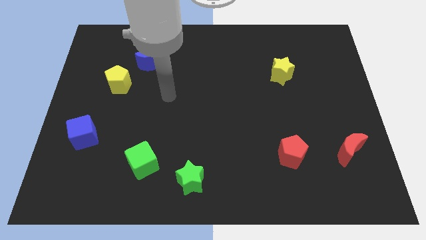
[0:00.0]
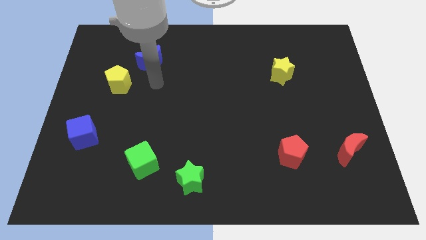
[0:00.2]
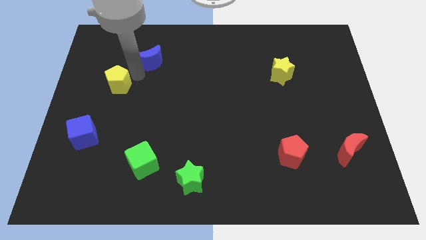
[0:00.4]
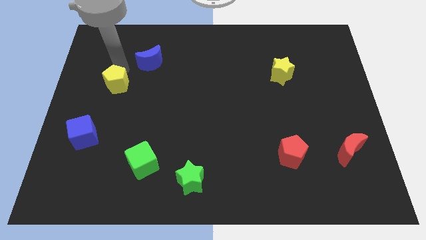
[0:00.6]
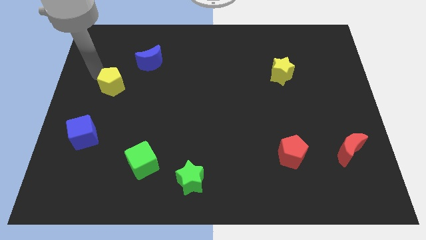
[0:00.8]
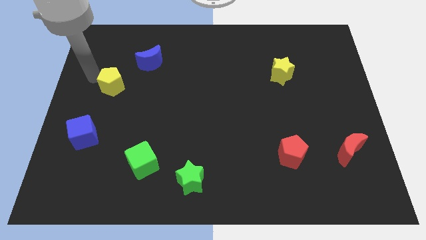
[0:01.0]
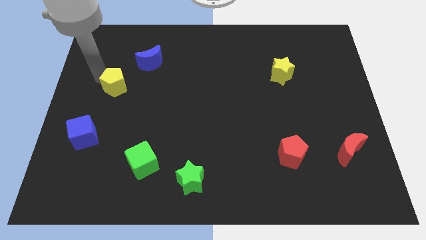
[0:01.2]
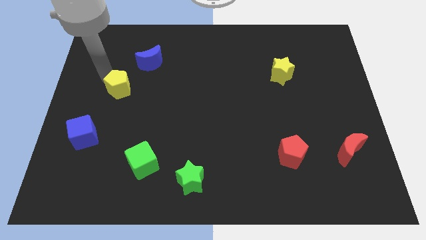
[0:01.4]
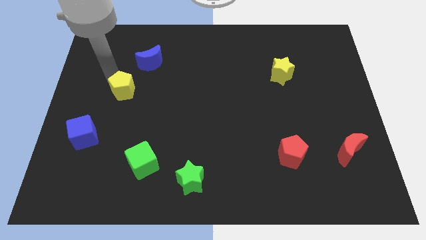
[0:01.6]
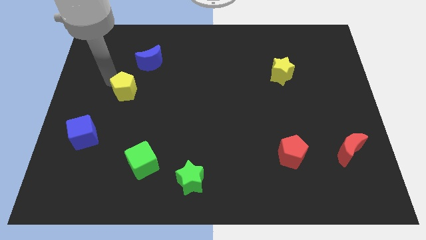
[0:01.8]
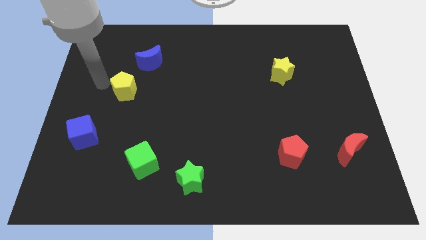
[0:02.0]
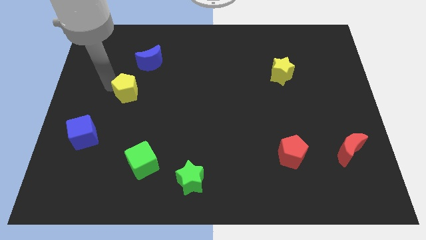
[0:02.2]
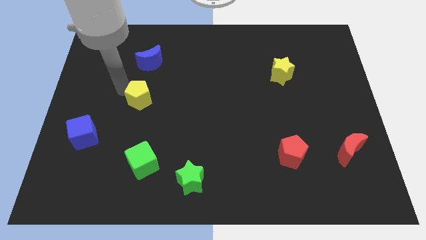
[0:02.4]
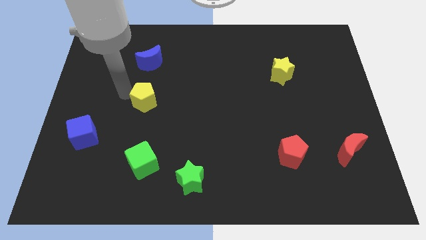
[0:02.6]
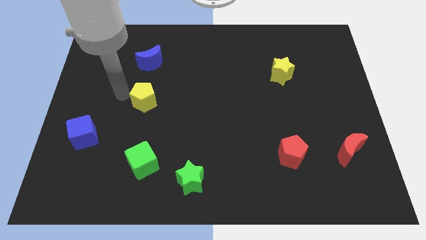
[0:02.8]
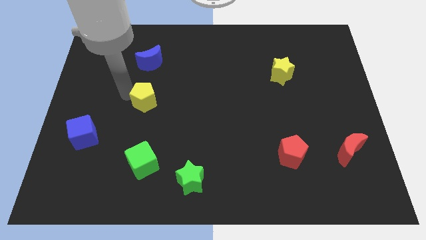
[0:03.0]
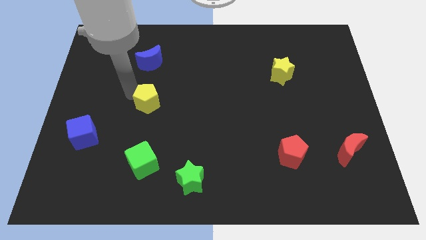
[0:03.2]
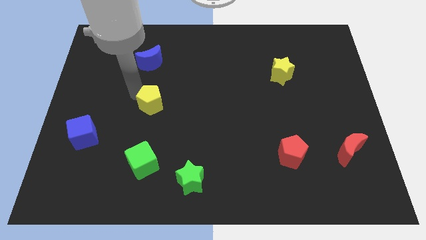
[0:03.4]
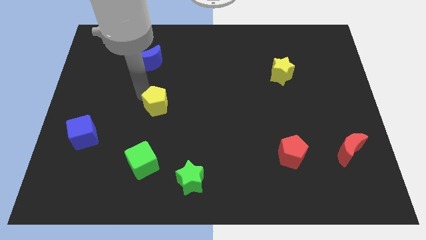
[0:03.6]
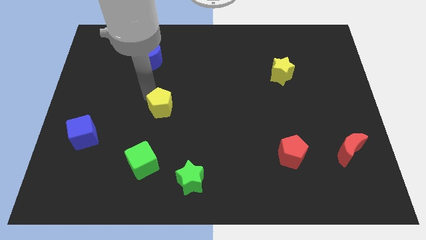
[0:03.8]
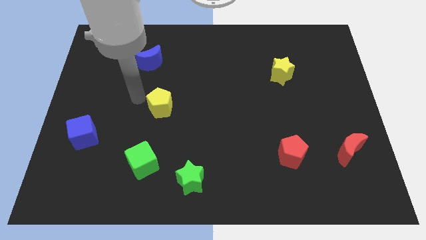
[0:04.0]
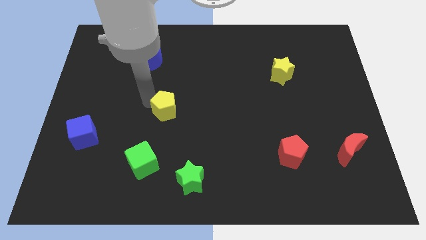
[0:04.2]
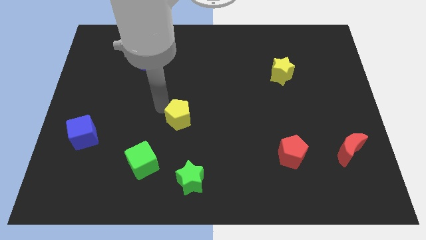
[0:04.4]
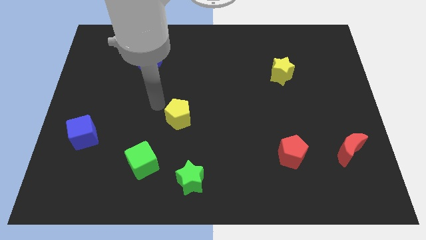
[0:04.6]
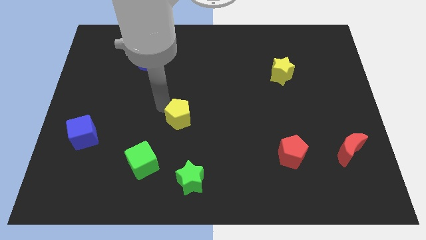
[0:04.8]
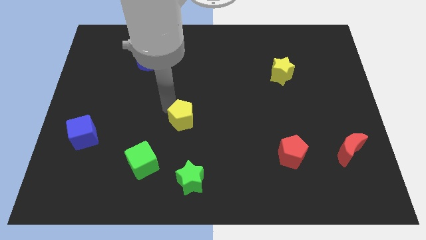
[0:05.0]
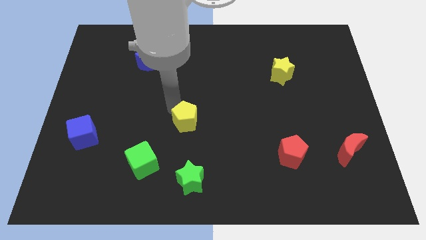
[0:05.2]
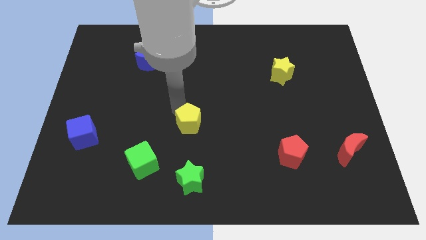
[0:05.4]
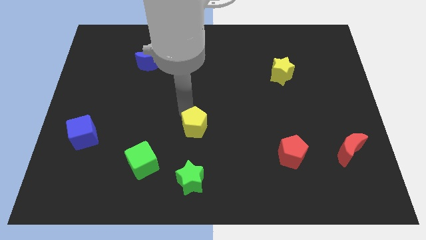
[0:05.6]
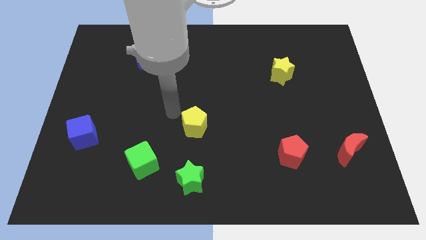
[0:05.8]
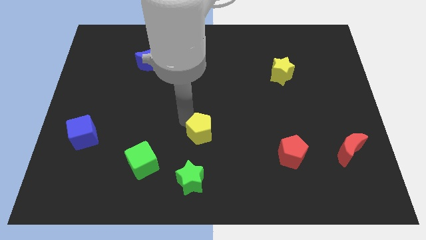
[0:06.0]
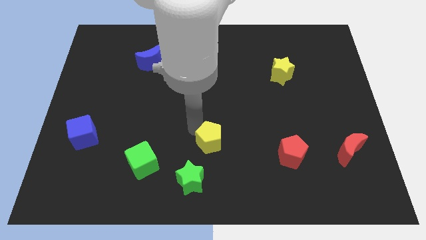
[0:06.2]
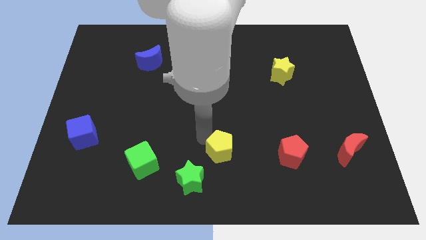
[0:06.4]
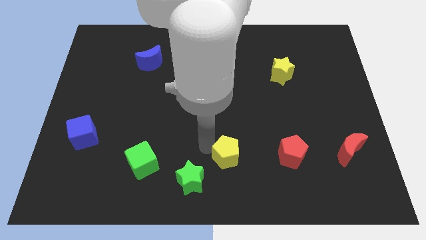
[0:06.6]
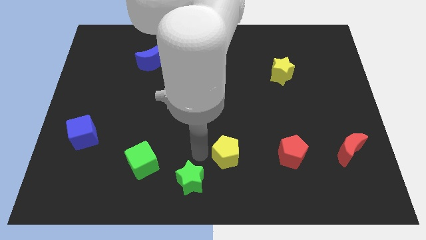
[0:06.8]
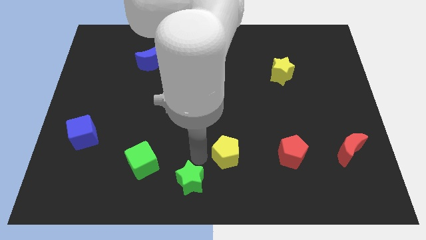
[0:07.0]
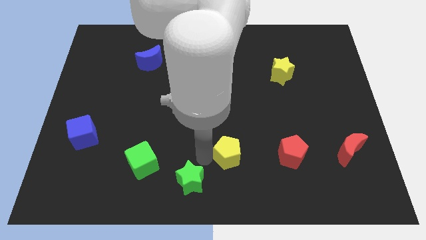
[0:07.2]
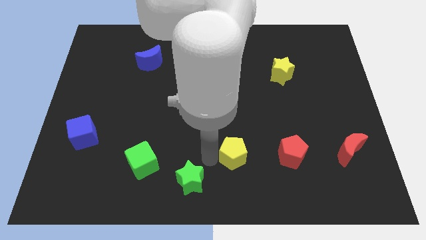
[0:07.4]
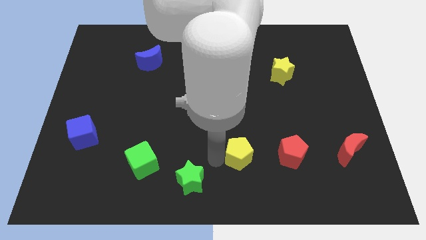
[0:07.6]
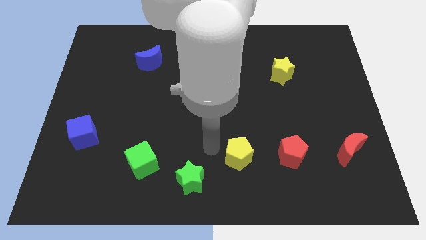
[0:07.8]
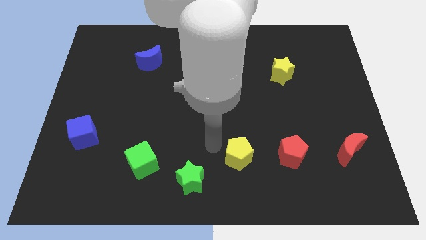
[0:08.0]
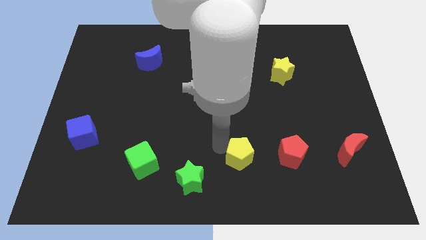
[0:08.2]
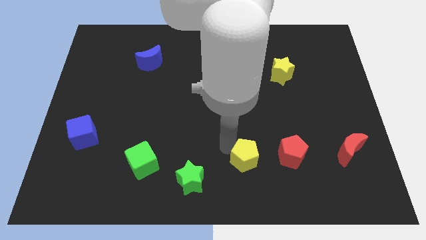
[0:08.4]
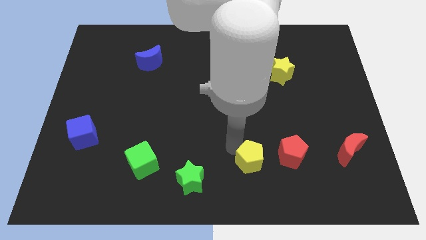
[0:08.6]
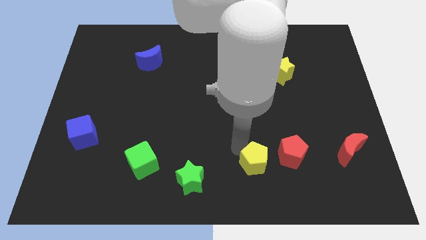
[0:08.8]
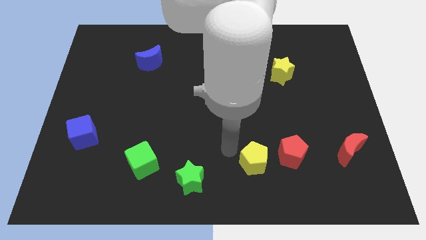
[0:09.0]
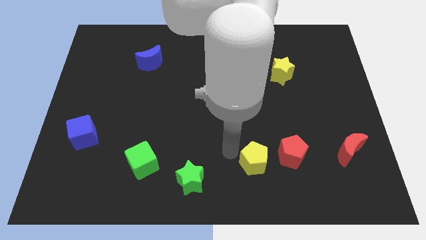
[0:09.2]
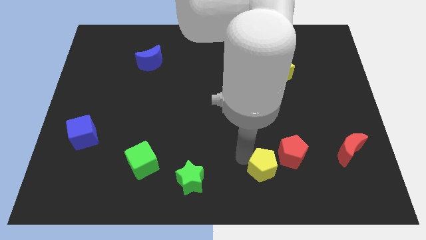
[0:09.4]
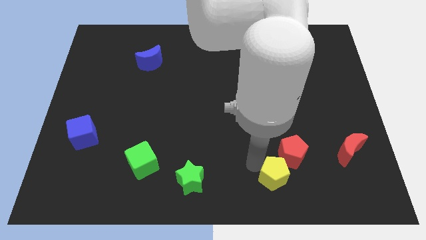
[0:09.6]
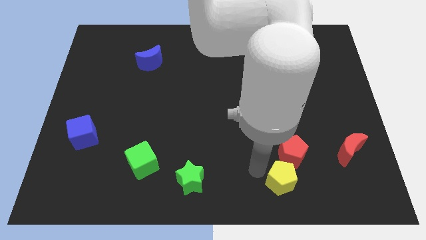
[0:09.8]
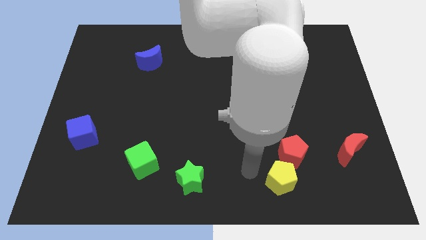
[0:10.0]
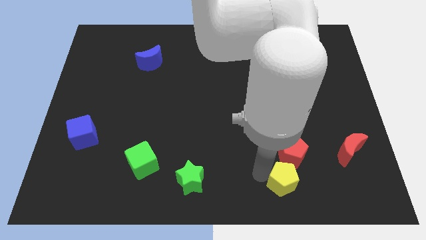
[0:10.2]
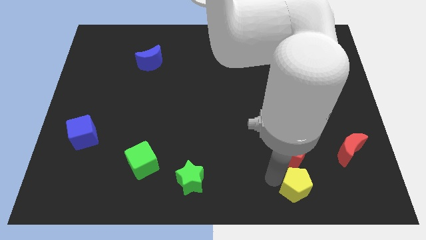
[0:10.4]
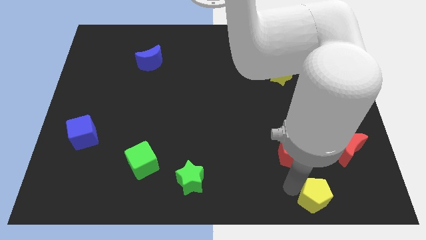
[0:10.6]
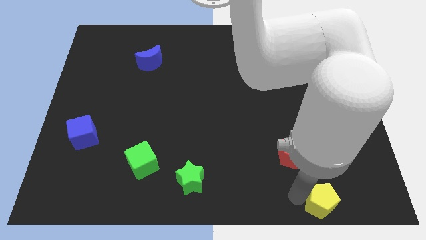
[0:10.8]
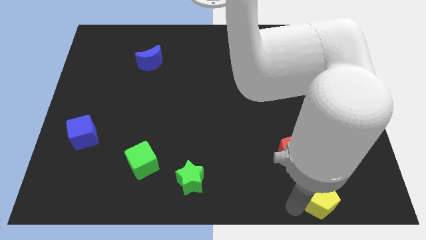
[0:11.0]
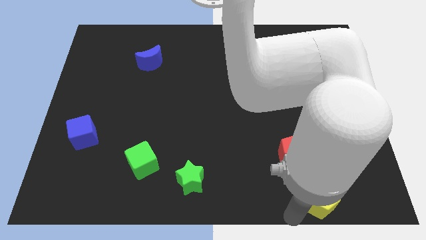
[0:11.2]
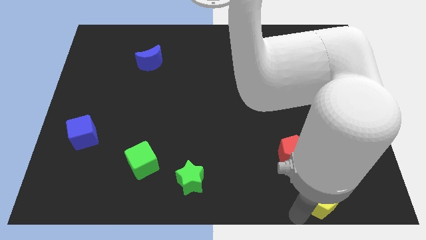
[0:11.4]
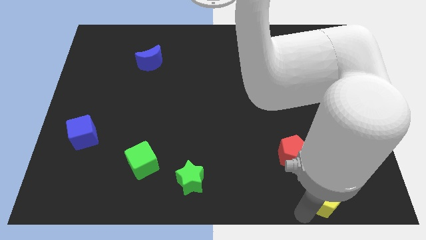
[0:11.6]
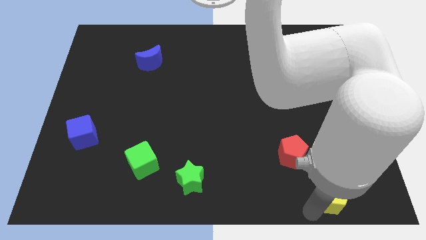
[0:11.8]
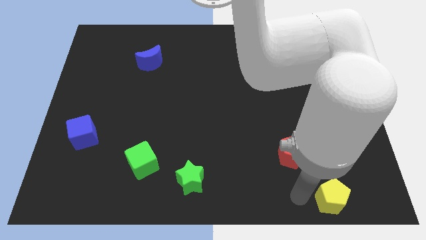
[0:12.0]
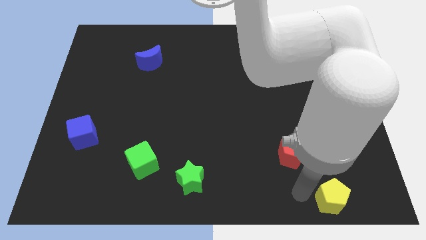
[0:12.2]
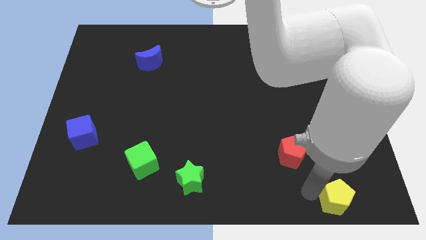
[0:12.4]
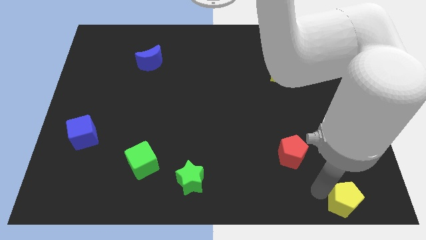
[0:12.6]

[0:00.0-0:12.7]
put the yellow pentagon to the lower right corner

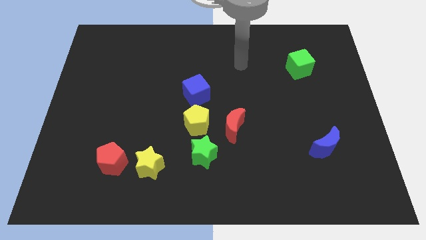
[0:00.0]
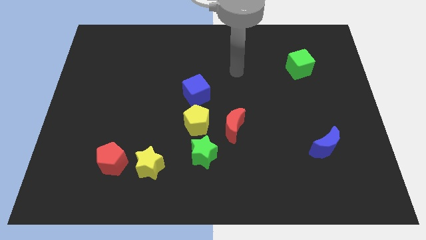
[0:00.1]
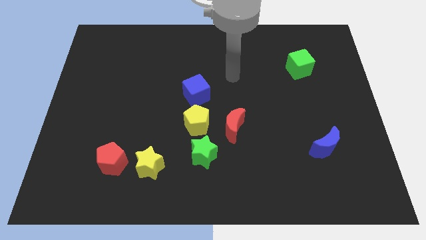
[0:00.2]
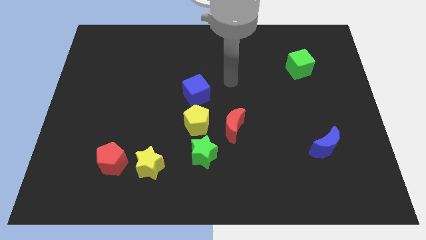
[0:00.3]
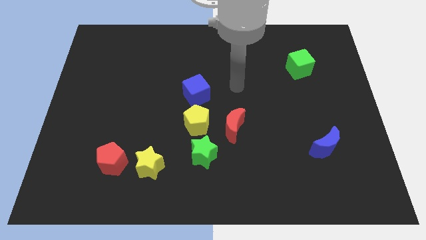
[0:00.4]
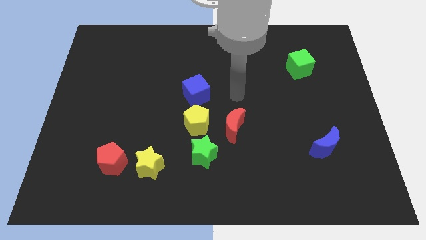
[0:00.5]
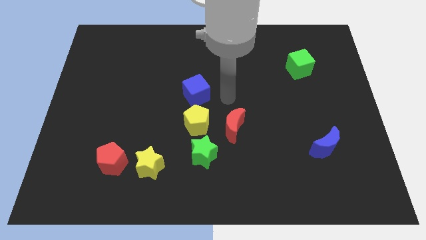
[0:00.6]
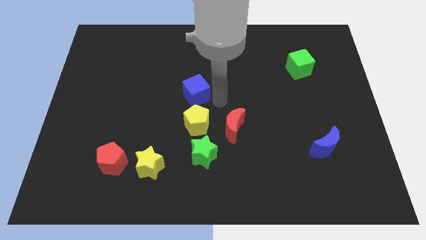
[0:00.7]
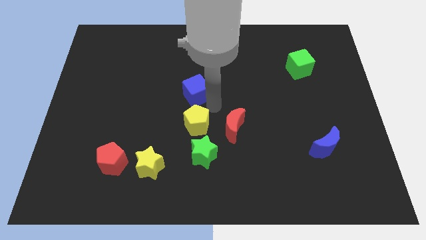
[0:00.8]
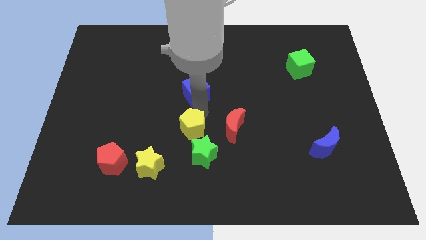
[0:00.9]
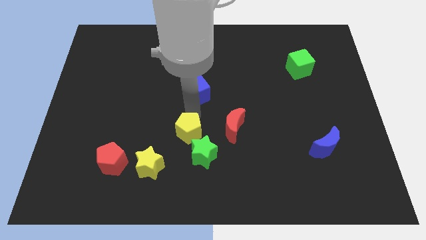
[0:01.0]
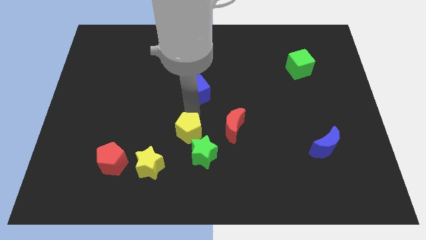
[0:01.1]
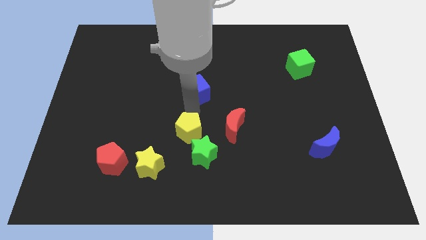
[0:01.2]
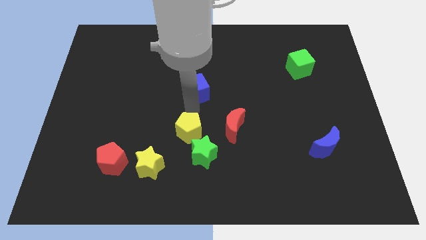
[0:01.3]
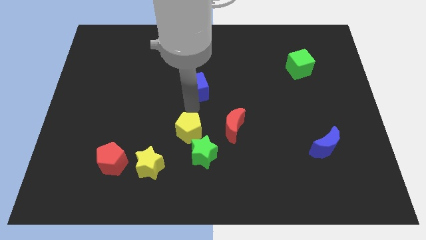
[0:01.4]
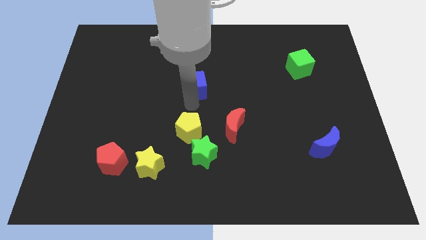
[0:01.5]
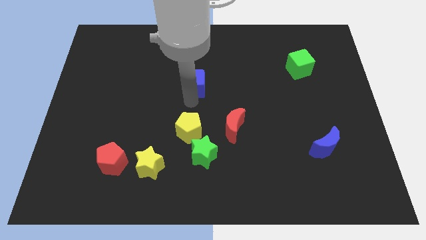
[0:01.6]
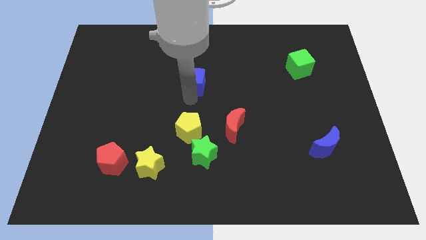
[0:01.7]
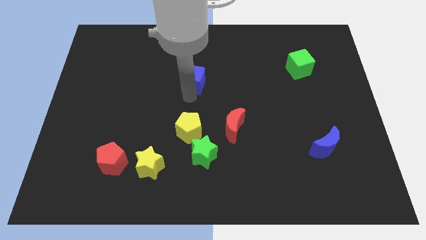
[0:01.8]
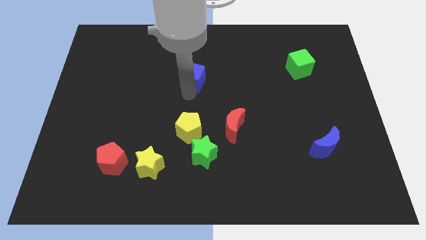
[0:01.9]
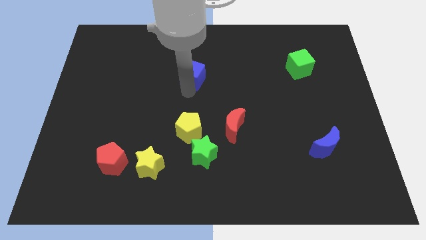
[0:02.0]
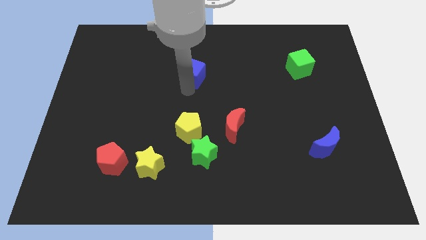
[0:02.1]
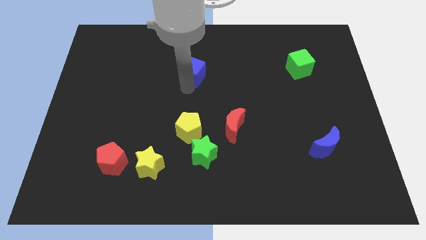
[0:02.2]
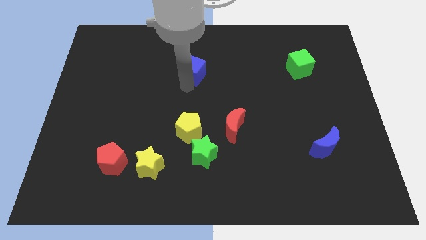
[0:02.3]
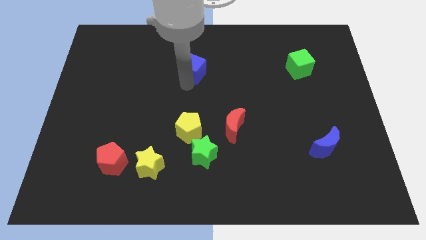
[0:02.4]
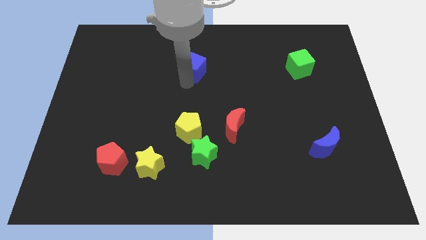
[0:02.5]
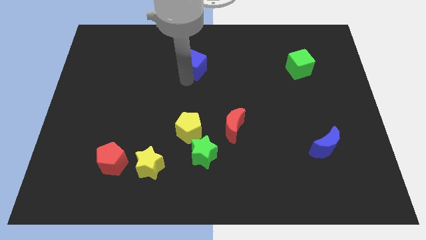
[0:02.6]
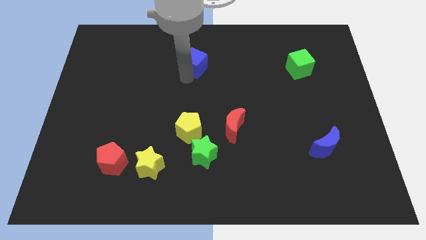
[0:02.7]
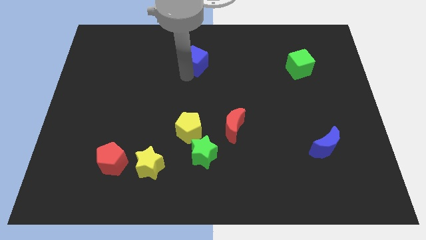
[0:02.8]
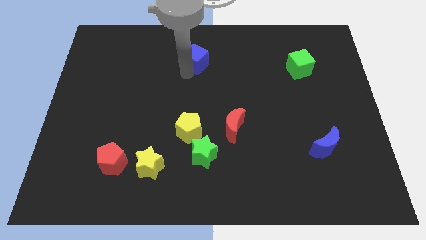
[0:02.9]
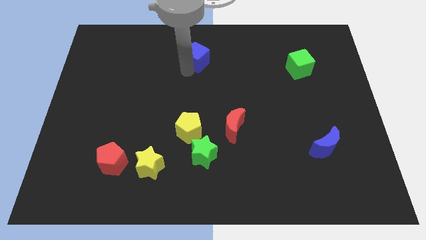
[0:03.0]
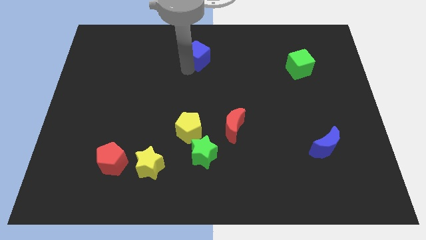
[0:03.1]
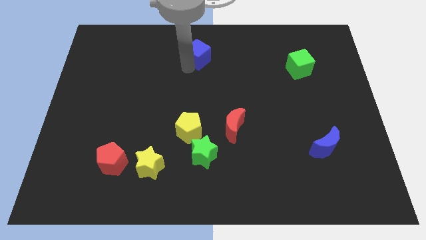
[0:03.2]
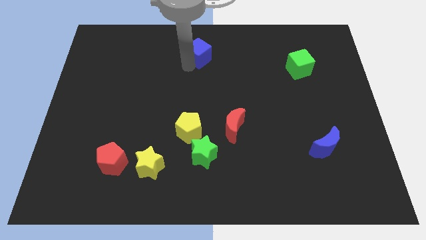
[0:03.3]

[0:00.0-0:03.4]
move the blue cube to the top
